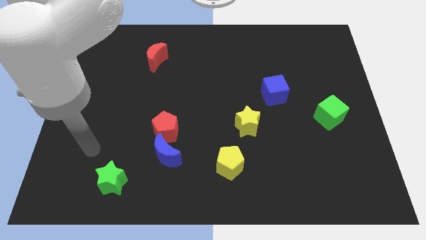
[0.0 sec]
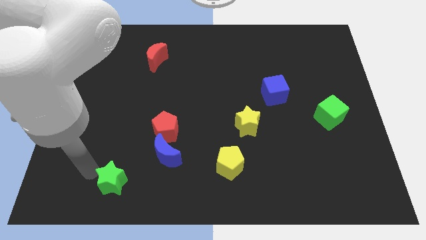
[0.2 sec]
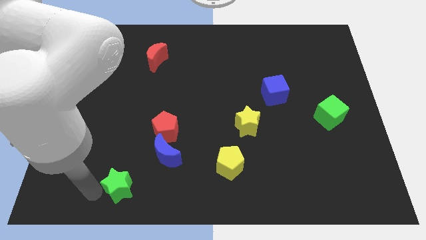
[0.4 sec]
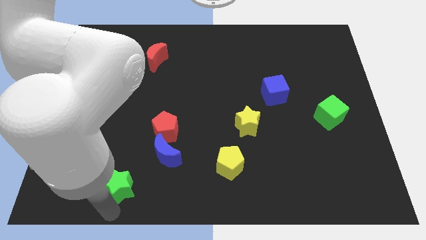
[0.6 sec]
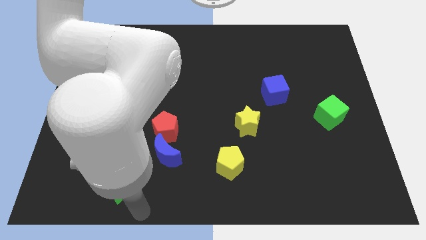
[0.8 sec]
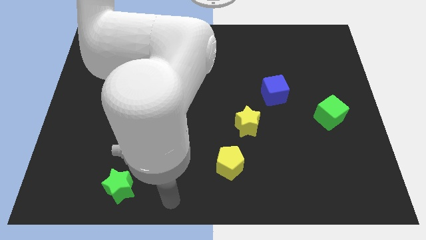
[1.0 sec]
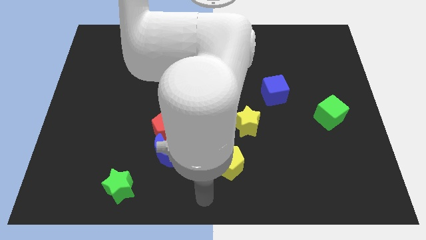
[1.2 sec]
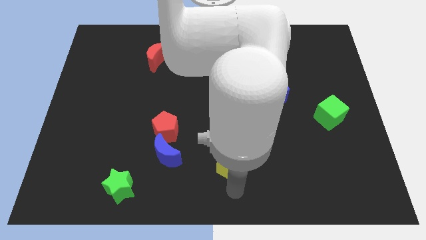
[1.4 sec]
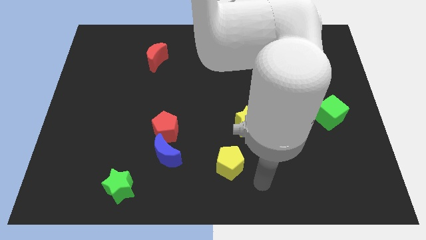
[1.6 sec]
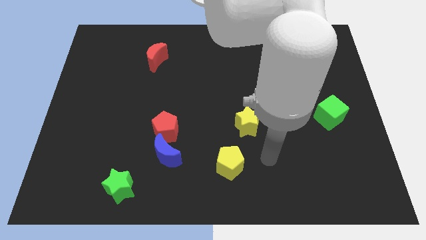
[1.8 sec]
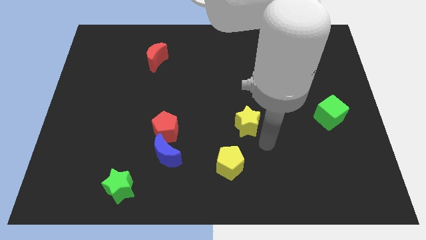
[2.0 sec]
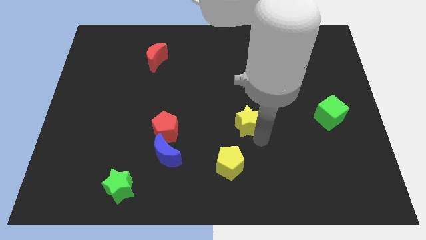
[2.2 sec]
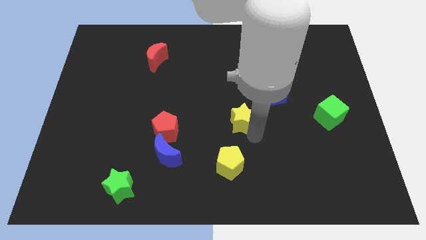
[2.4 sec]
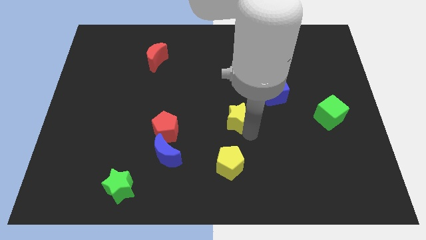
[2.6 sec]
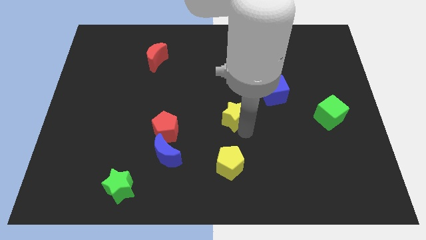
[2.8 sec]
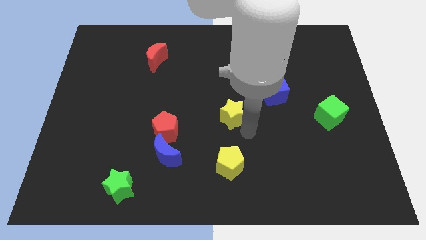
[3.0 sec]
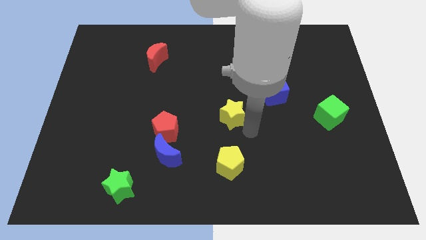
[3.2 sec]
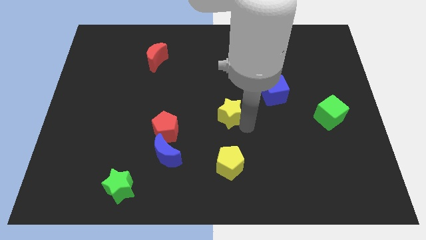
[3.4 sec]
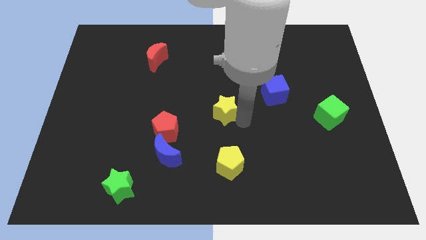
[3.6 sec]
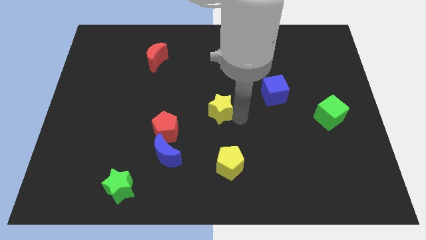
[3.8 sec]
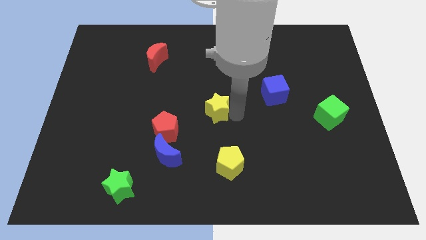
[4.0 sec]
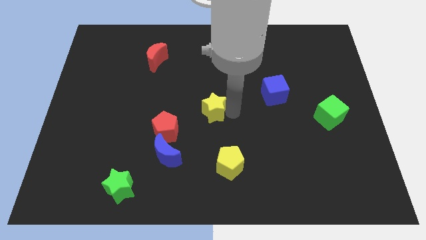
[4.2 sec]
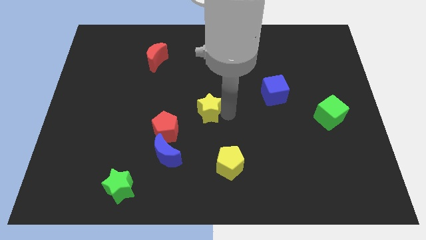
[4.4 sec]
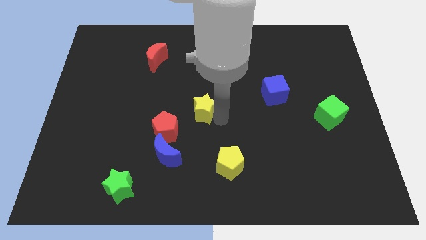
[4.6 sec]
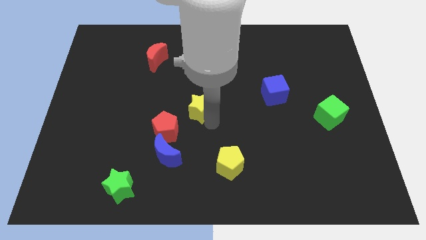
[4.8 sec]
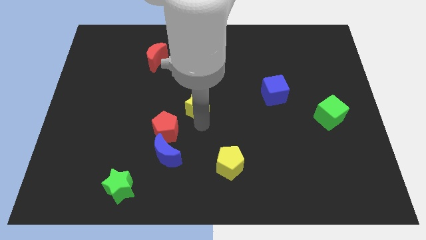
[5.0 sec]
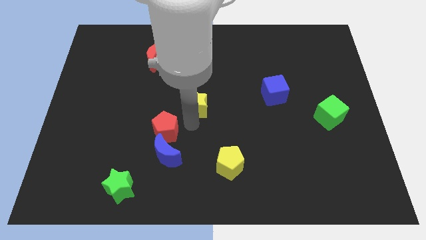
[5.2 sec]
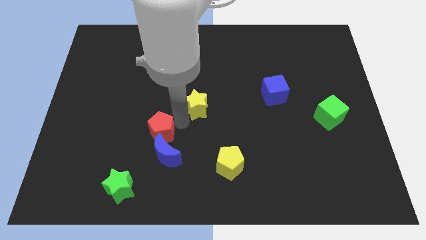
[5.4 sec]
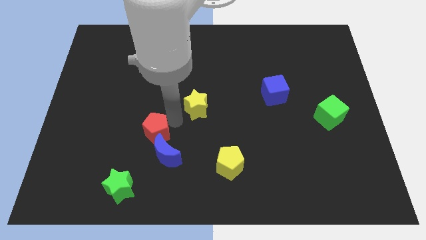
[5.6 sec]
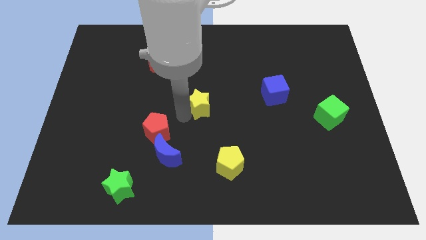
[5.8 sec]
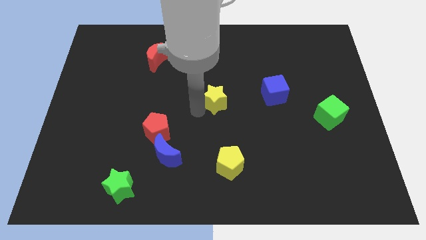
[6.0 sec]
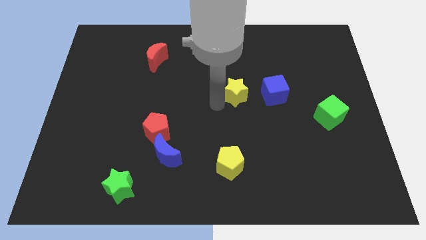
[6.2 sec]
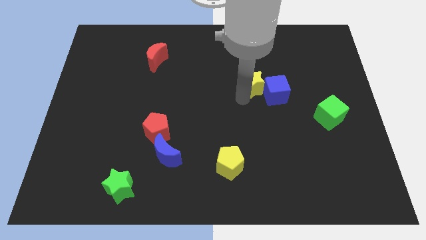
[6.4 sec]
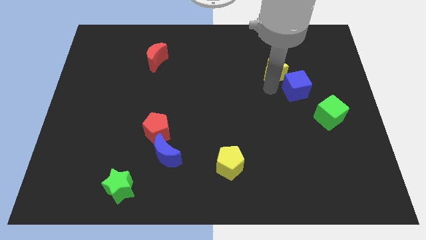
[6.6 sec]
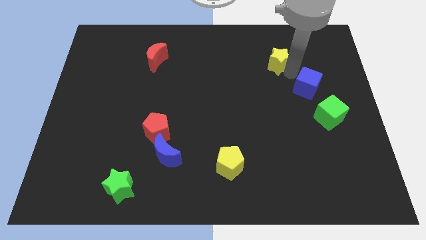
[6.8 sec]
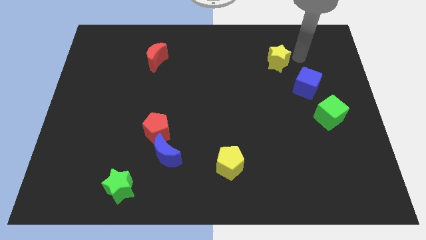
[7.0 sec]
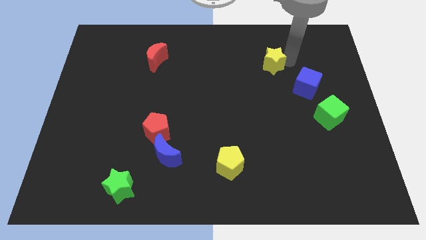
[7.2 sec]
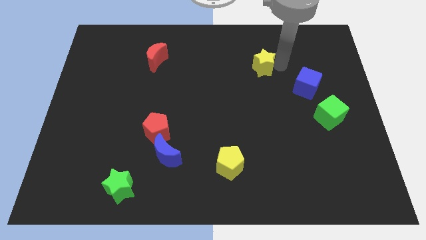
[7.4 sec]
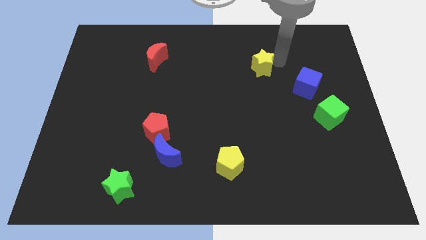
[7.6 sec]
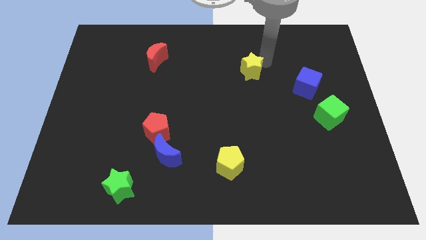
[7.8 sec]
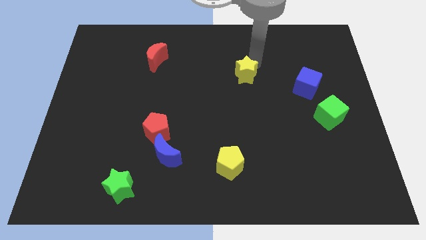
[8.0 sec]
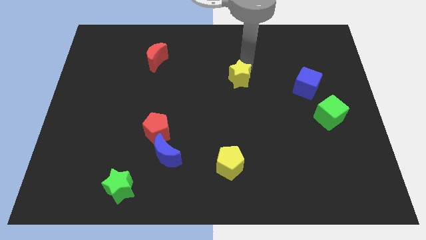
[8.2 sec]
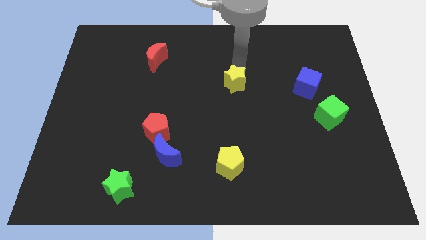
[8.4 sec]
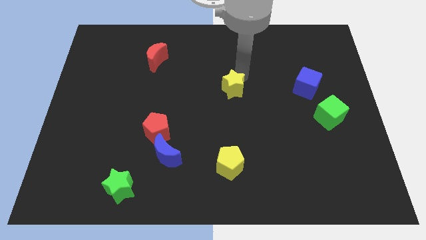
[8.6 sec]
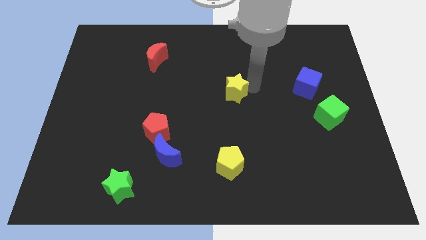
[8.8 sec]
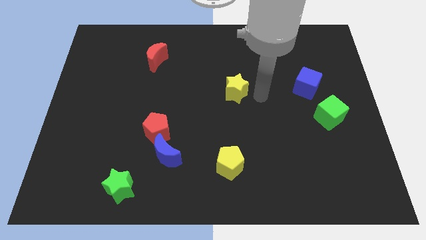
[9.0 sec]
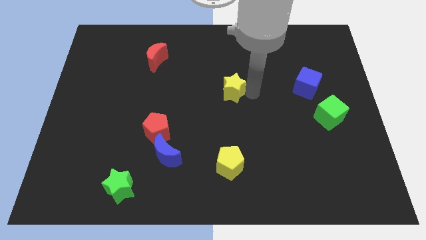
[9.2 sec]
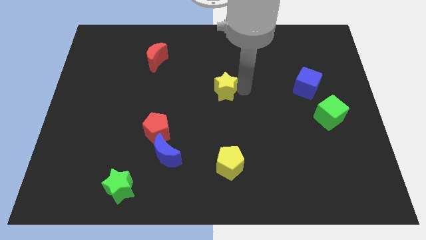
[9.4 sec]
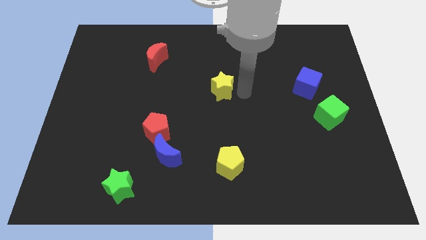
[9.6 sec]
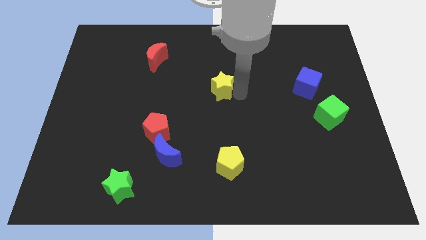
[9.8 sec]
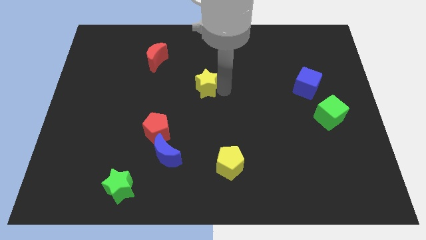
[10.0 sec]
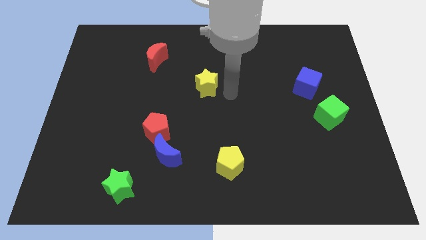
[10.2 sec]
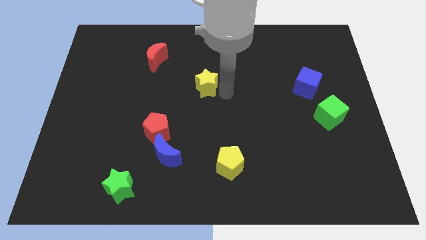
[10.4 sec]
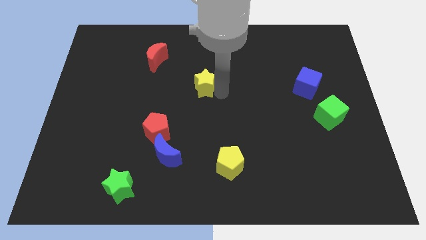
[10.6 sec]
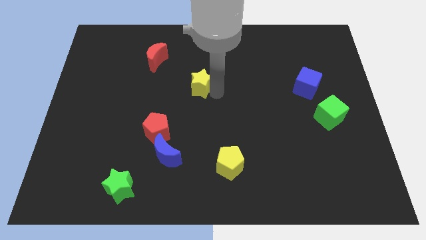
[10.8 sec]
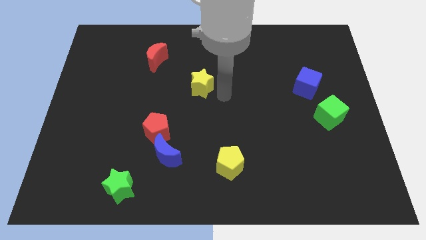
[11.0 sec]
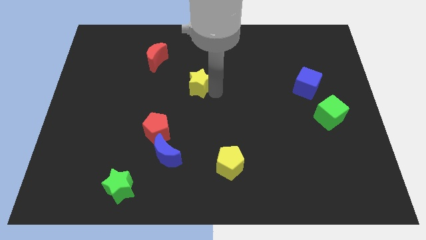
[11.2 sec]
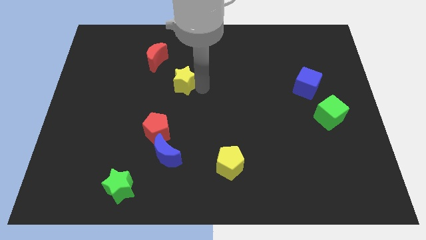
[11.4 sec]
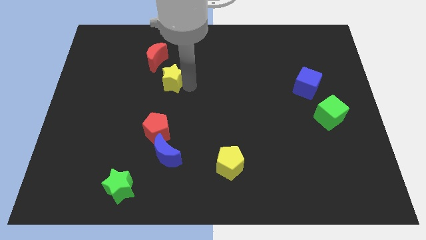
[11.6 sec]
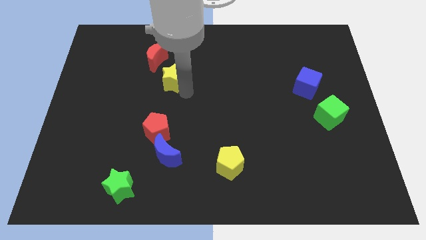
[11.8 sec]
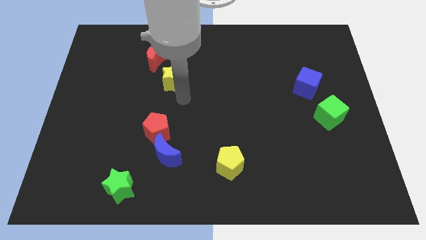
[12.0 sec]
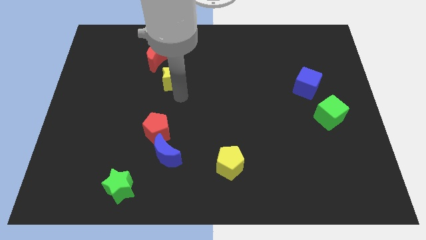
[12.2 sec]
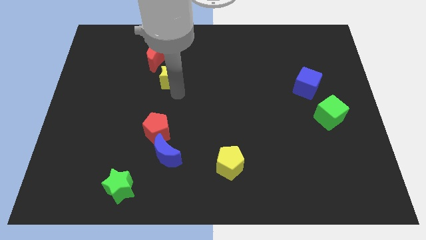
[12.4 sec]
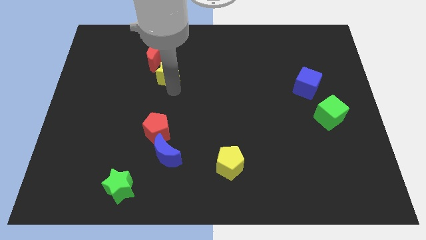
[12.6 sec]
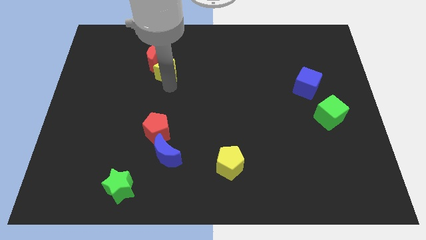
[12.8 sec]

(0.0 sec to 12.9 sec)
push the yellow star close to the red moon
